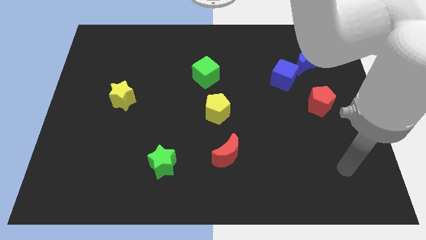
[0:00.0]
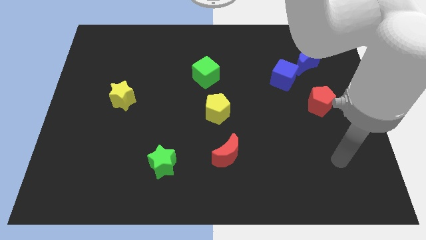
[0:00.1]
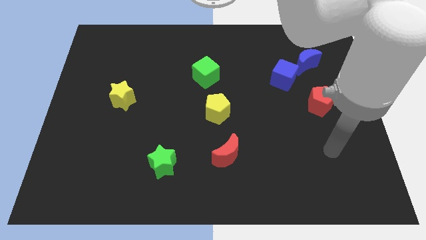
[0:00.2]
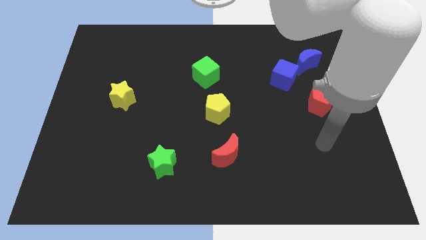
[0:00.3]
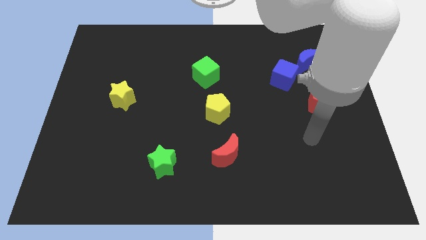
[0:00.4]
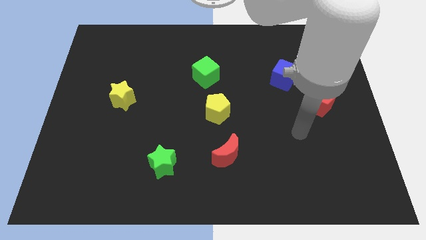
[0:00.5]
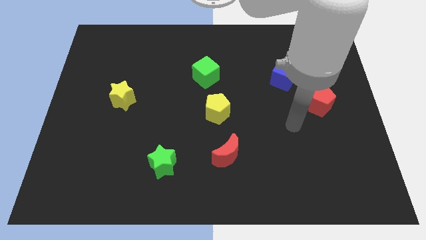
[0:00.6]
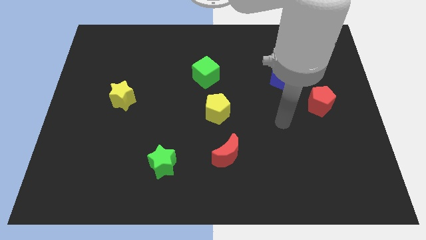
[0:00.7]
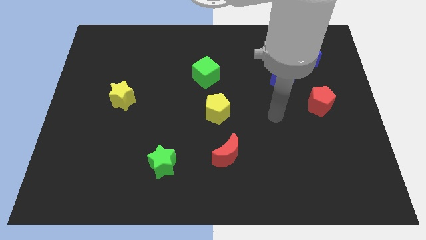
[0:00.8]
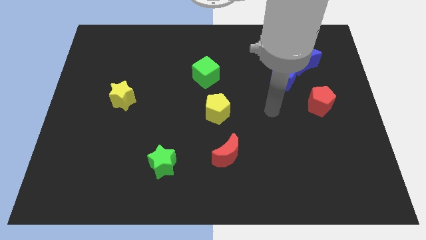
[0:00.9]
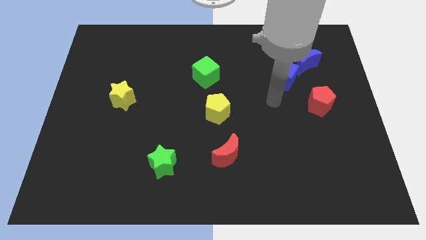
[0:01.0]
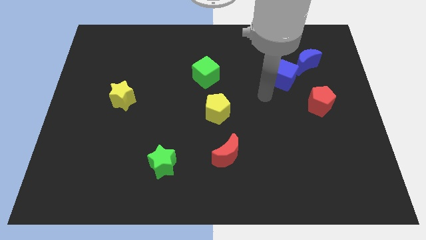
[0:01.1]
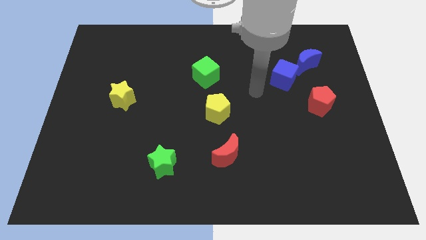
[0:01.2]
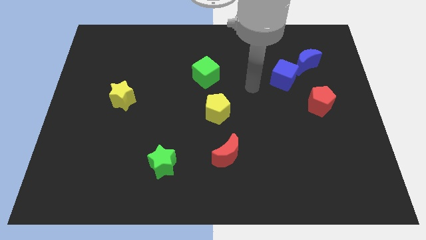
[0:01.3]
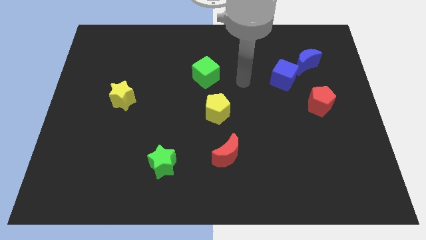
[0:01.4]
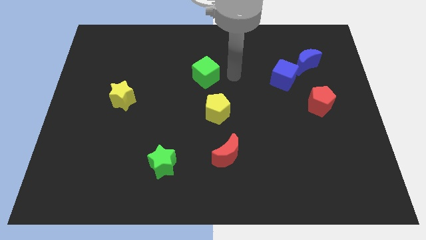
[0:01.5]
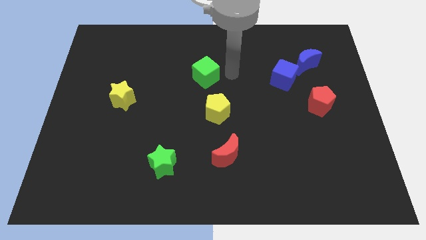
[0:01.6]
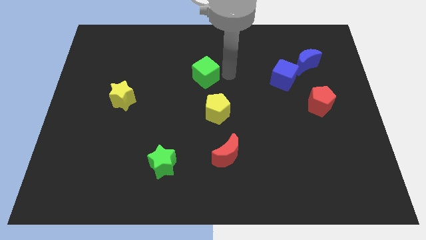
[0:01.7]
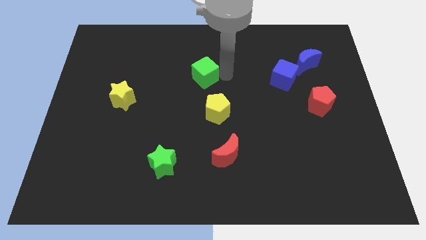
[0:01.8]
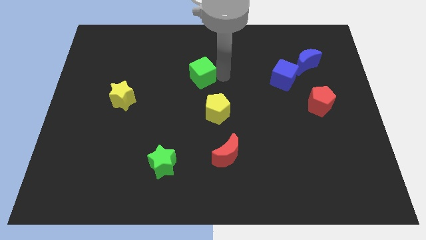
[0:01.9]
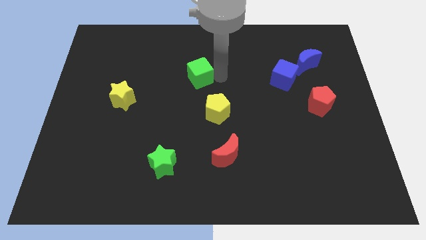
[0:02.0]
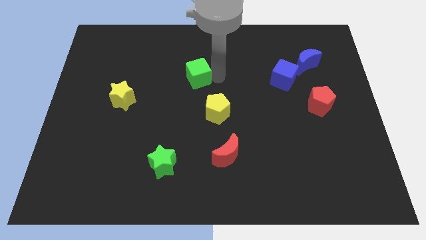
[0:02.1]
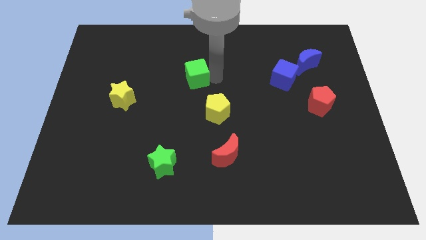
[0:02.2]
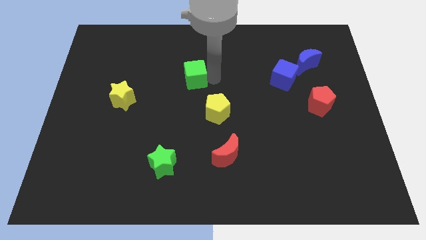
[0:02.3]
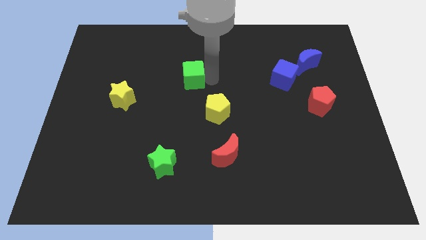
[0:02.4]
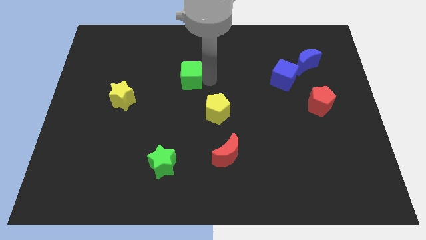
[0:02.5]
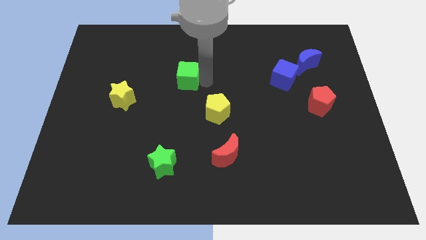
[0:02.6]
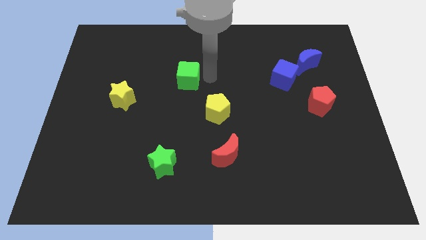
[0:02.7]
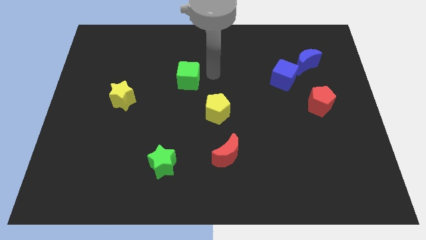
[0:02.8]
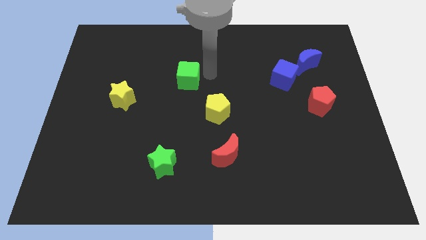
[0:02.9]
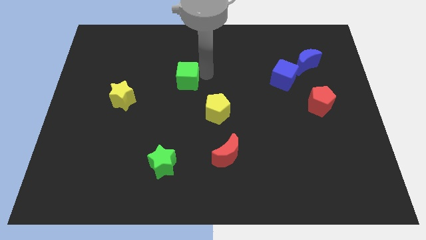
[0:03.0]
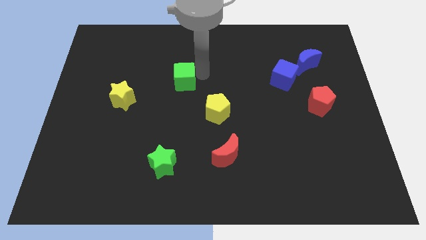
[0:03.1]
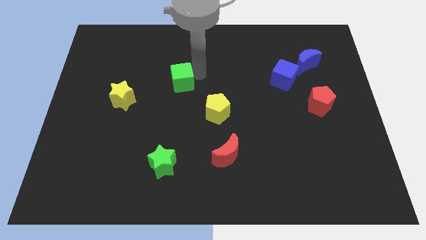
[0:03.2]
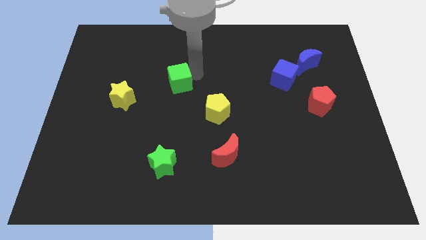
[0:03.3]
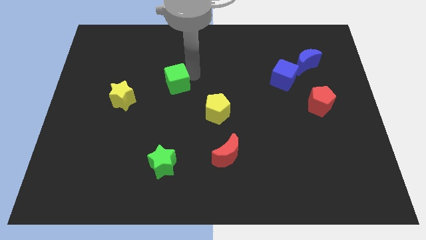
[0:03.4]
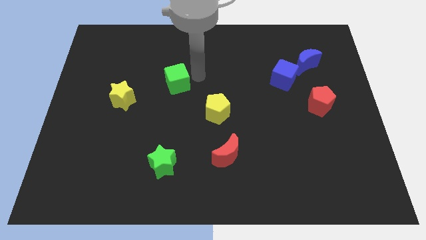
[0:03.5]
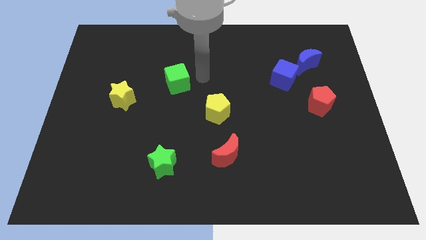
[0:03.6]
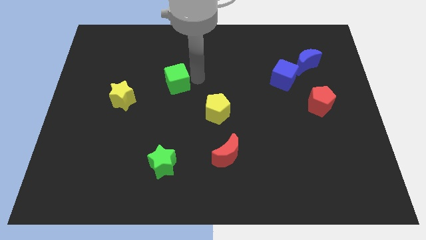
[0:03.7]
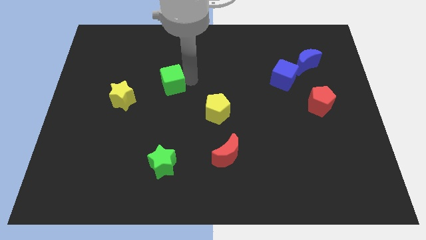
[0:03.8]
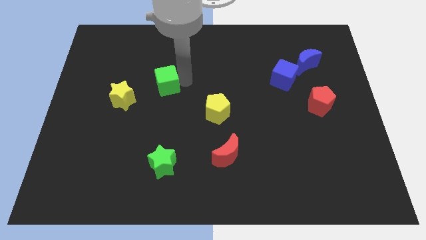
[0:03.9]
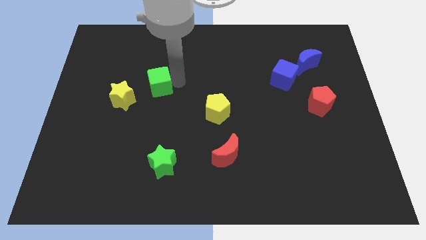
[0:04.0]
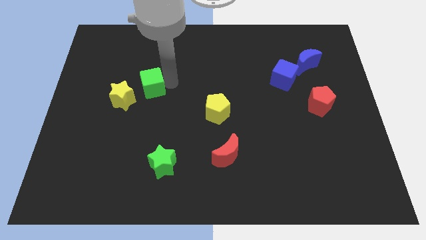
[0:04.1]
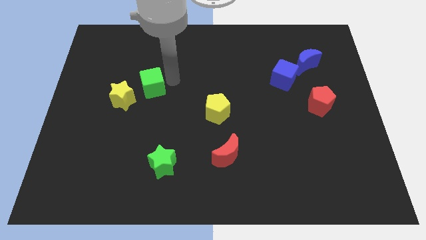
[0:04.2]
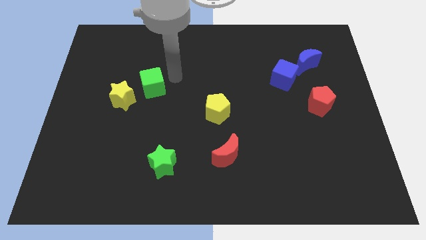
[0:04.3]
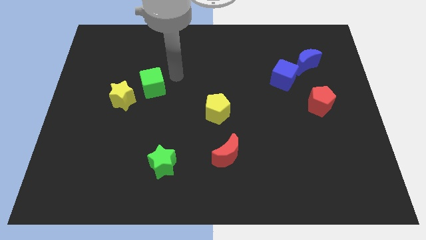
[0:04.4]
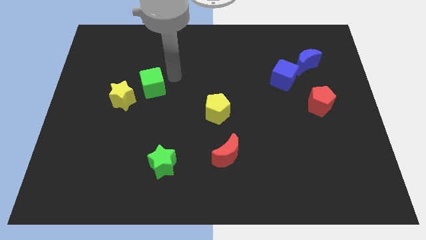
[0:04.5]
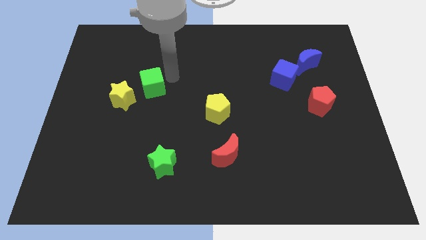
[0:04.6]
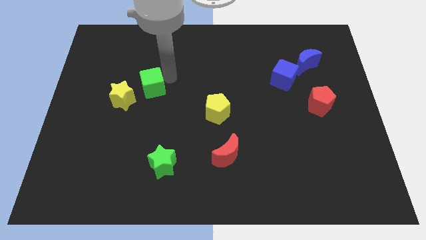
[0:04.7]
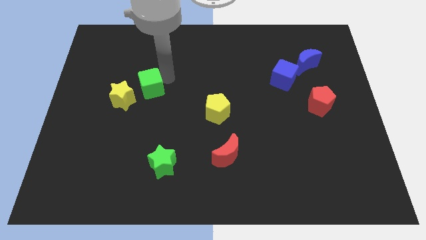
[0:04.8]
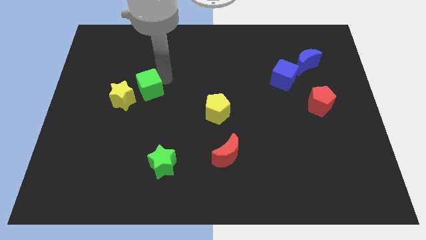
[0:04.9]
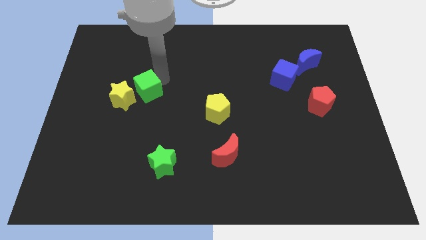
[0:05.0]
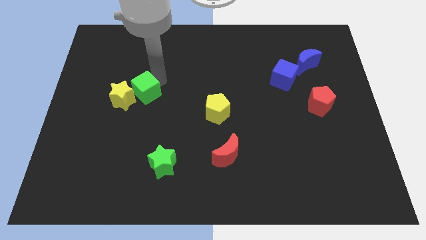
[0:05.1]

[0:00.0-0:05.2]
slide the green cube towards the yellow star

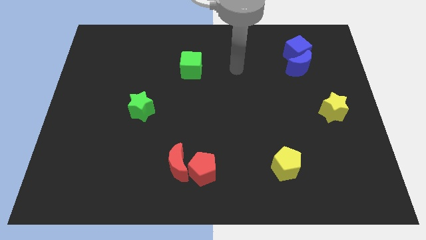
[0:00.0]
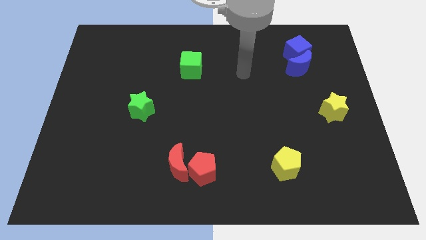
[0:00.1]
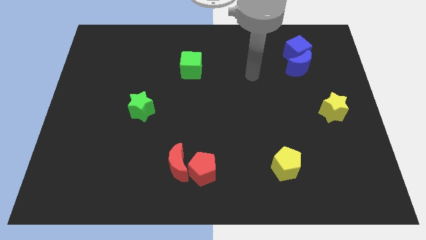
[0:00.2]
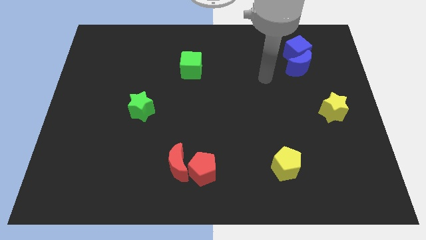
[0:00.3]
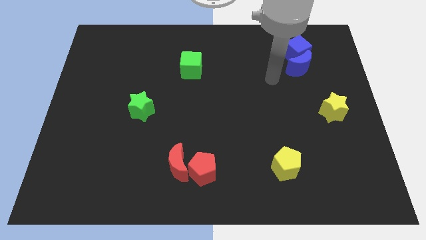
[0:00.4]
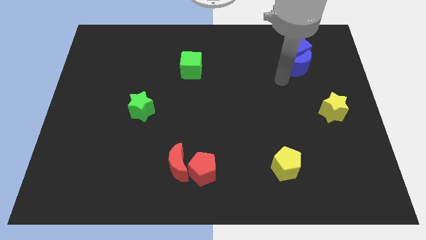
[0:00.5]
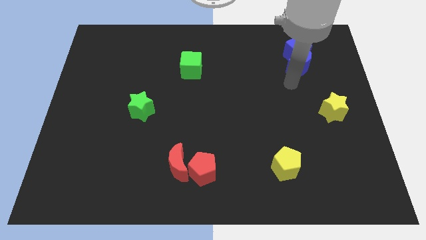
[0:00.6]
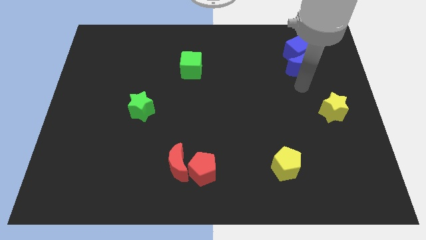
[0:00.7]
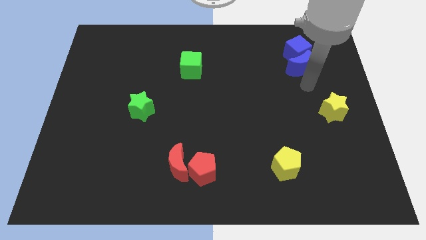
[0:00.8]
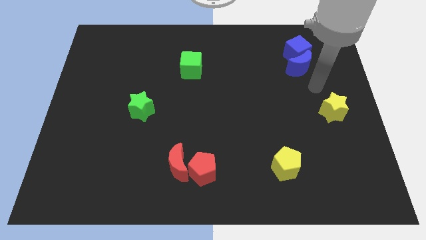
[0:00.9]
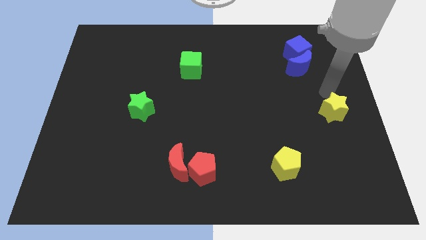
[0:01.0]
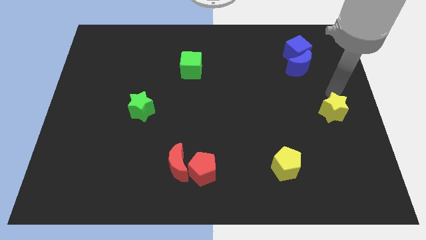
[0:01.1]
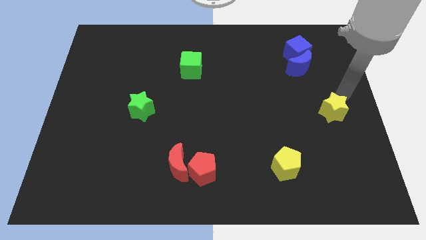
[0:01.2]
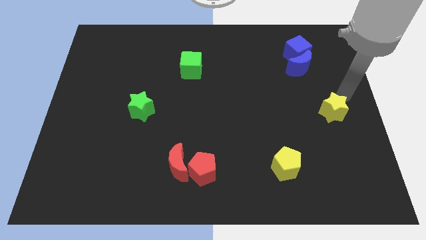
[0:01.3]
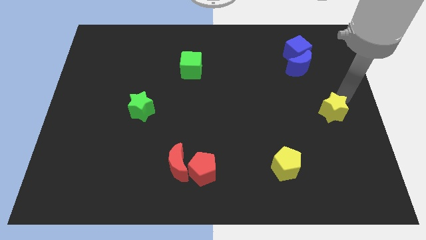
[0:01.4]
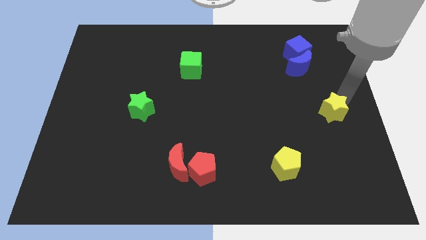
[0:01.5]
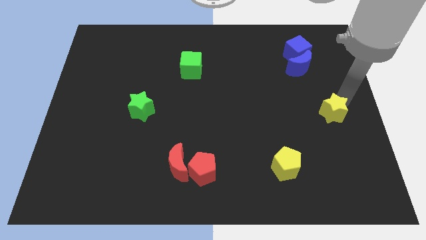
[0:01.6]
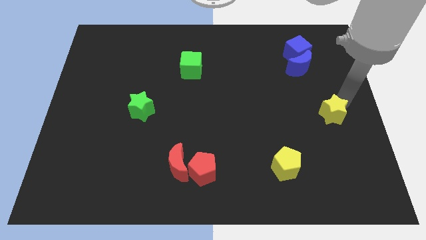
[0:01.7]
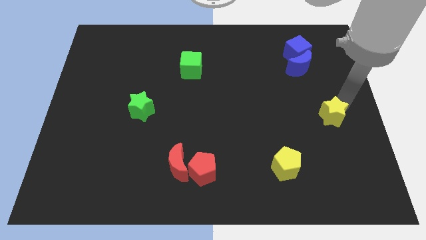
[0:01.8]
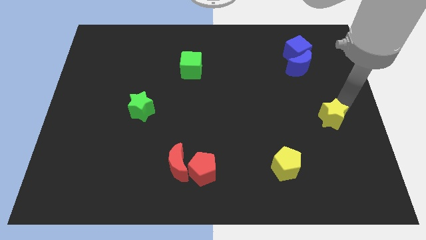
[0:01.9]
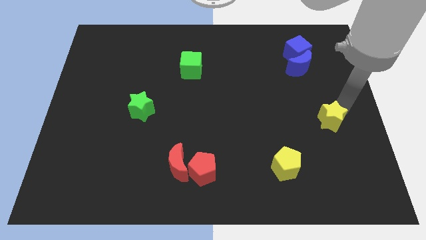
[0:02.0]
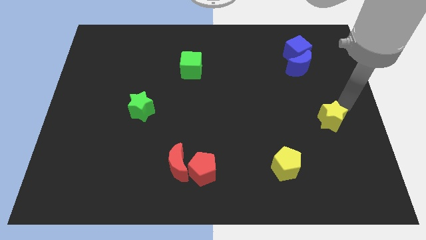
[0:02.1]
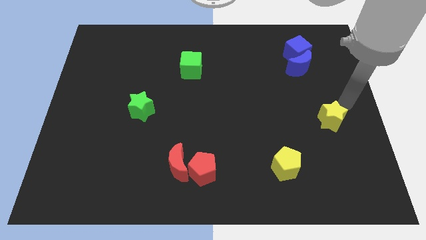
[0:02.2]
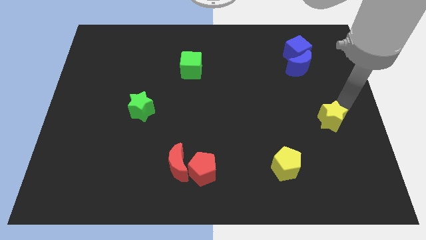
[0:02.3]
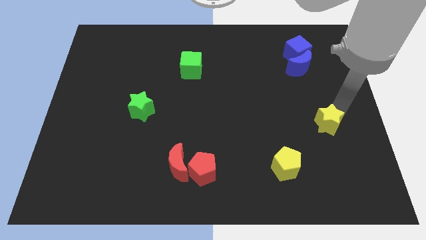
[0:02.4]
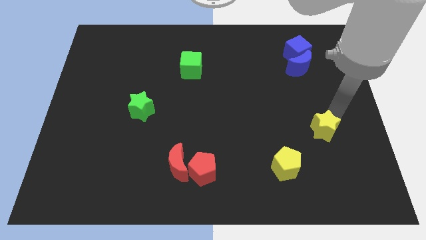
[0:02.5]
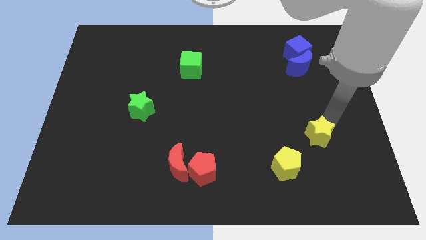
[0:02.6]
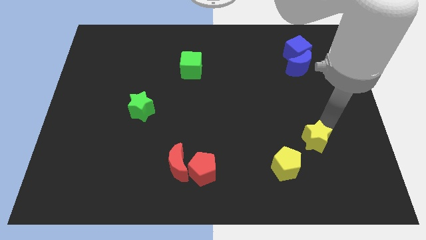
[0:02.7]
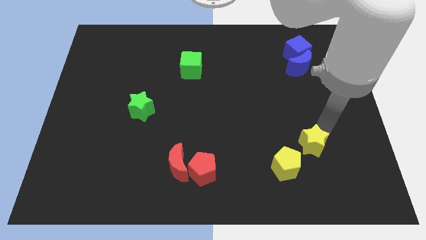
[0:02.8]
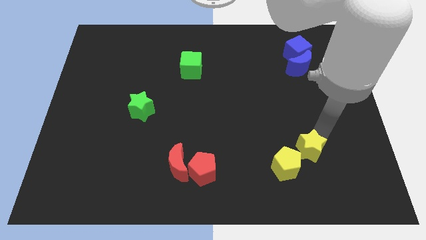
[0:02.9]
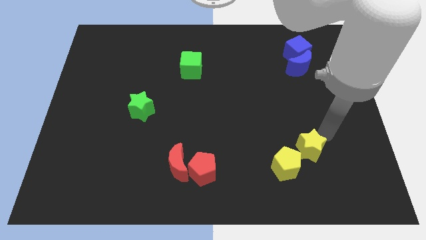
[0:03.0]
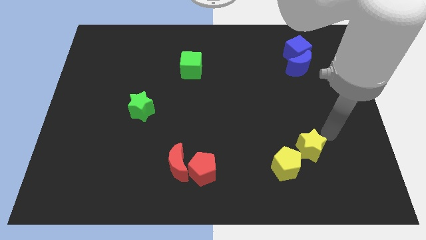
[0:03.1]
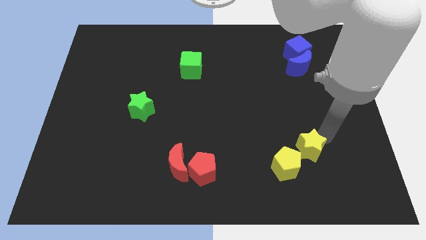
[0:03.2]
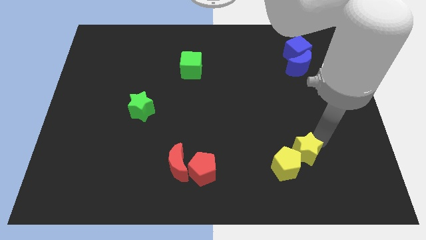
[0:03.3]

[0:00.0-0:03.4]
move the yellow star to the yellow pentagon
